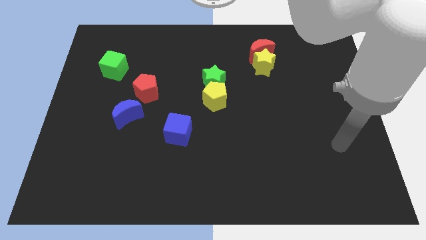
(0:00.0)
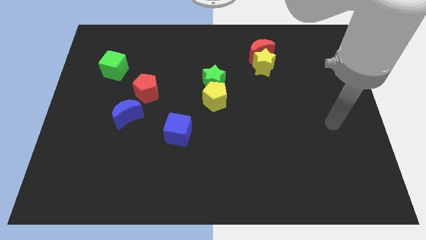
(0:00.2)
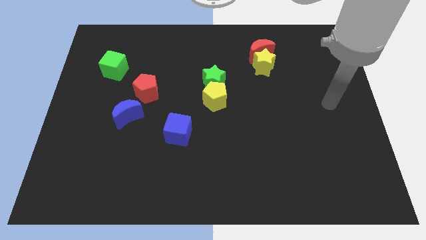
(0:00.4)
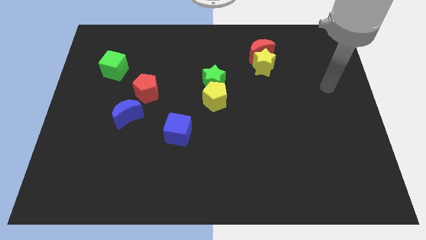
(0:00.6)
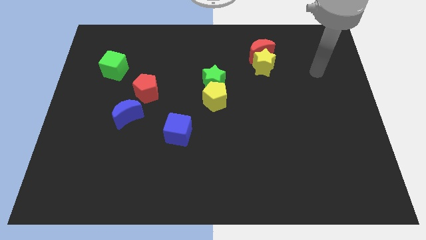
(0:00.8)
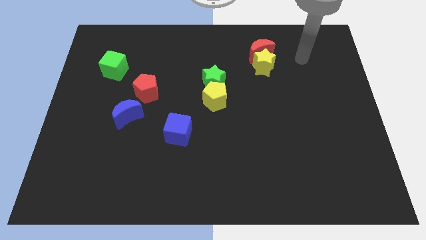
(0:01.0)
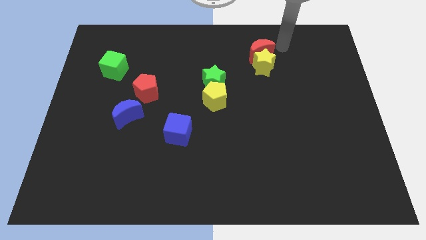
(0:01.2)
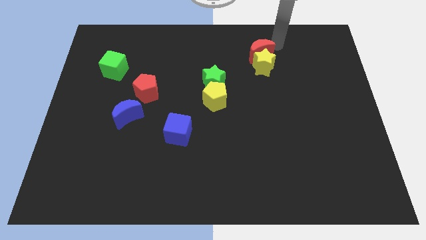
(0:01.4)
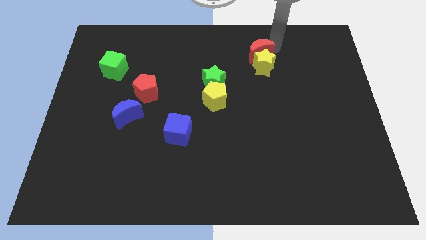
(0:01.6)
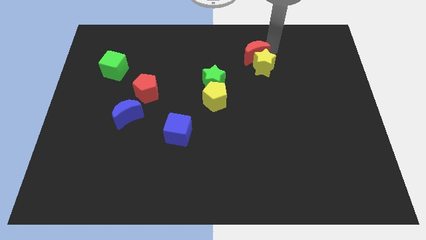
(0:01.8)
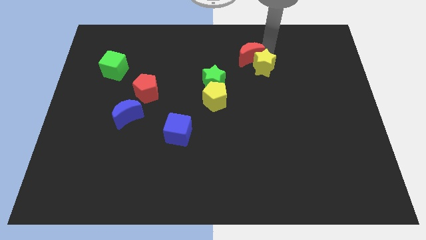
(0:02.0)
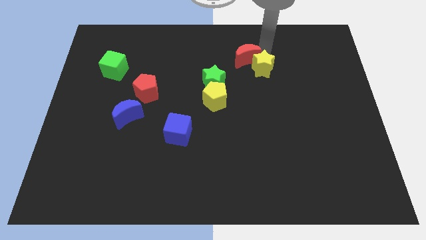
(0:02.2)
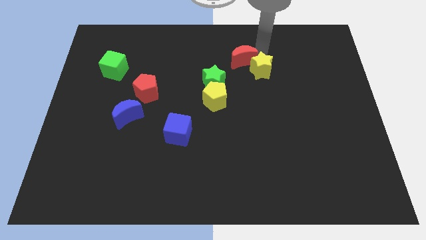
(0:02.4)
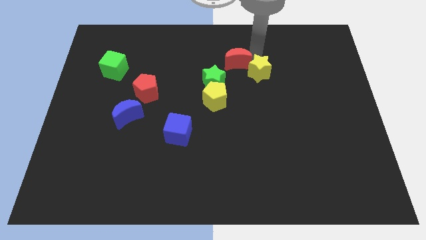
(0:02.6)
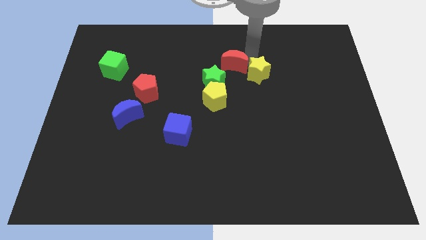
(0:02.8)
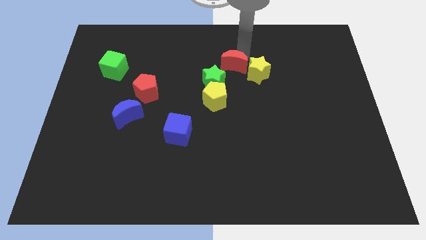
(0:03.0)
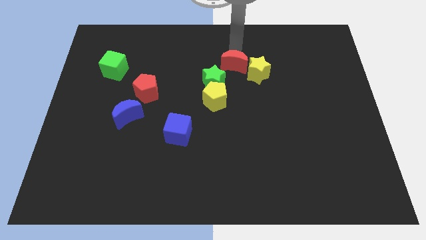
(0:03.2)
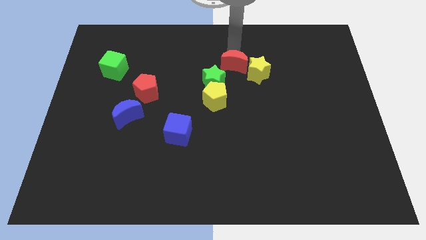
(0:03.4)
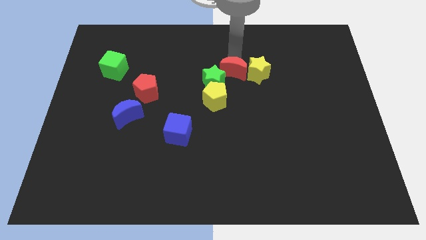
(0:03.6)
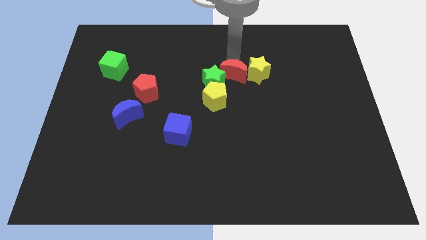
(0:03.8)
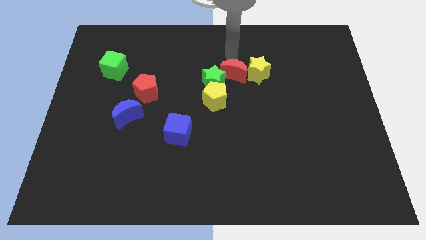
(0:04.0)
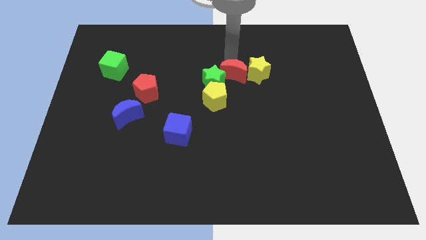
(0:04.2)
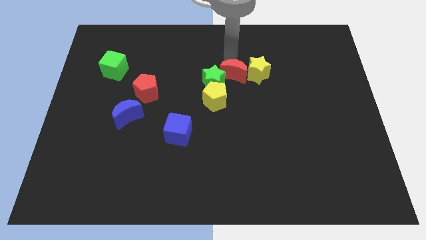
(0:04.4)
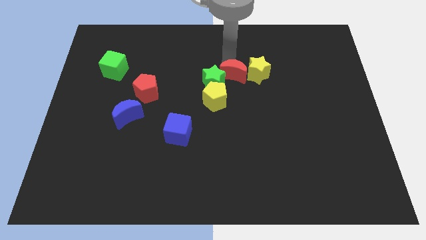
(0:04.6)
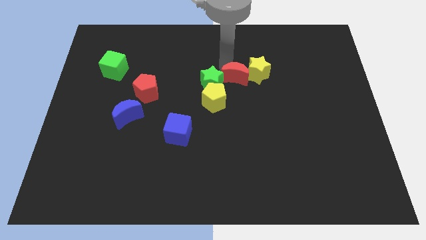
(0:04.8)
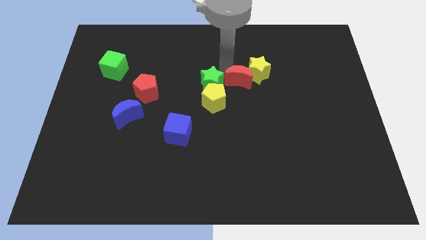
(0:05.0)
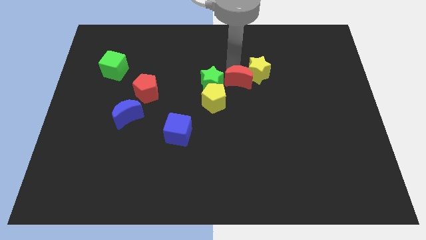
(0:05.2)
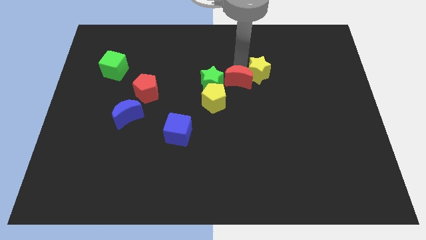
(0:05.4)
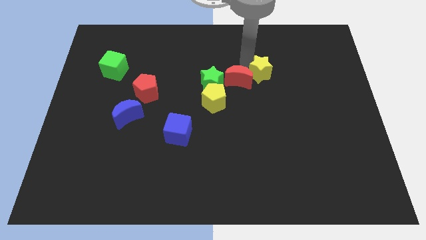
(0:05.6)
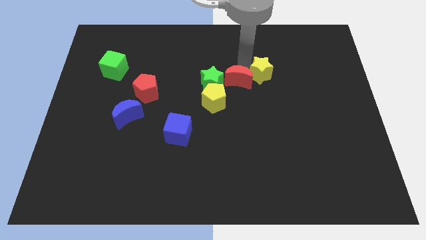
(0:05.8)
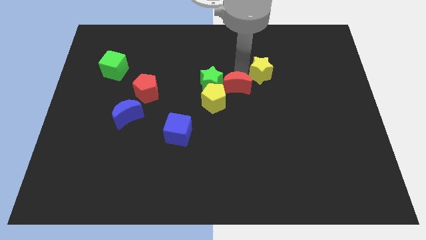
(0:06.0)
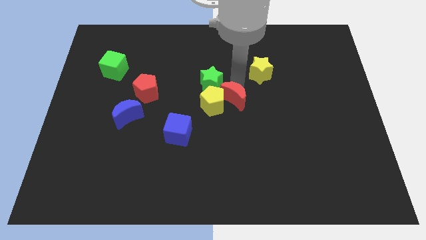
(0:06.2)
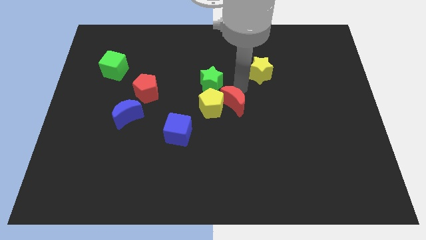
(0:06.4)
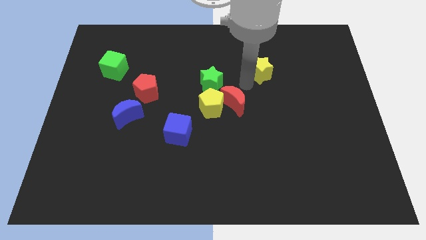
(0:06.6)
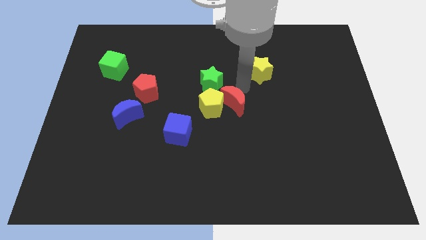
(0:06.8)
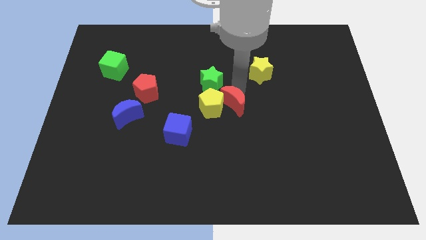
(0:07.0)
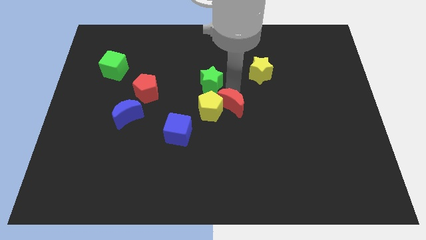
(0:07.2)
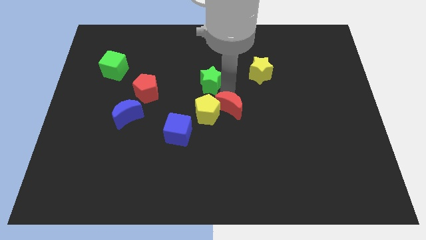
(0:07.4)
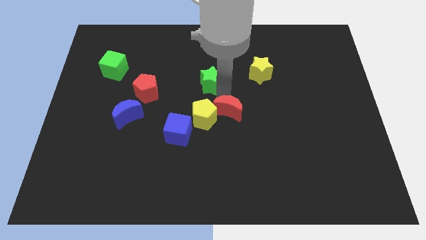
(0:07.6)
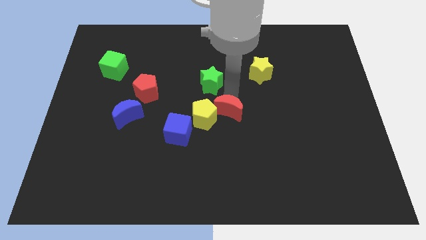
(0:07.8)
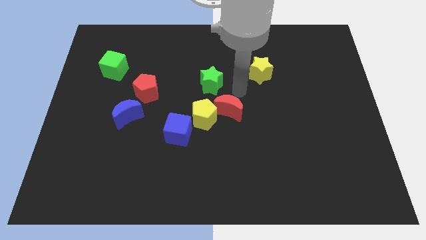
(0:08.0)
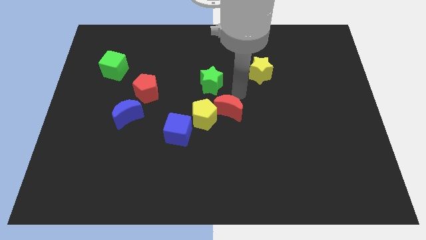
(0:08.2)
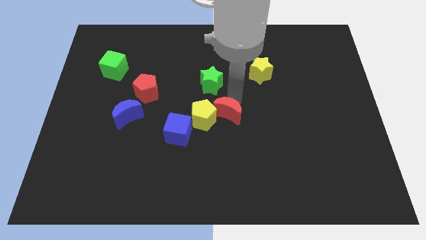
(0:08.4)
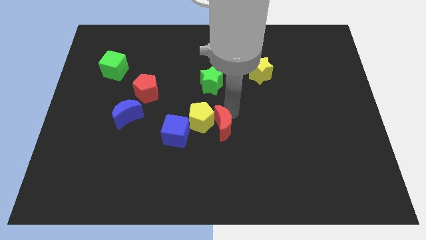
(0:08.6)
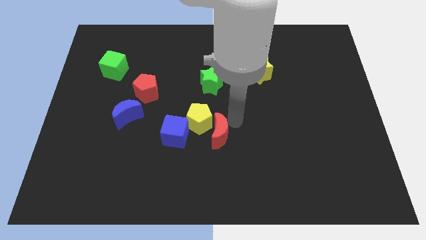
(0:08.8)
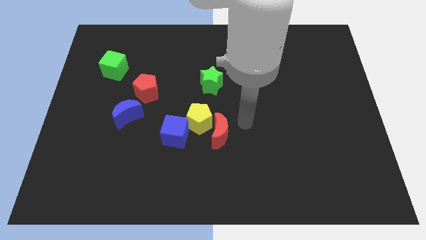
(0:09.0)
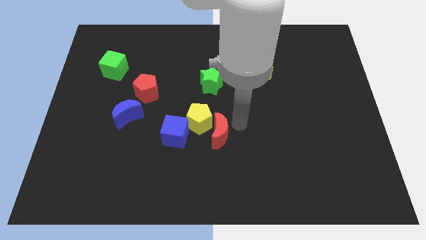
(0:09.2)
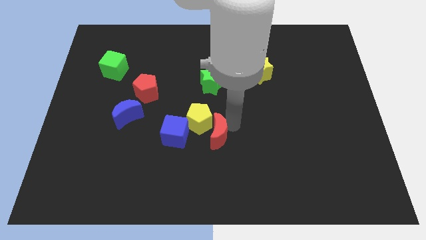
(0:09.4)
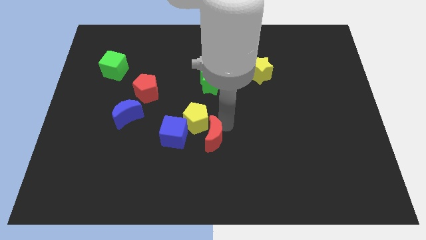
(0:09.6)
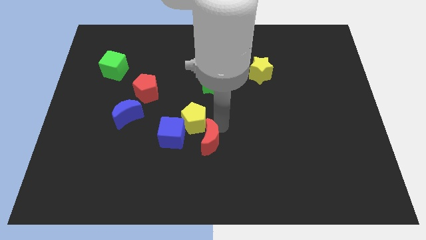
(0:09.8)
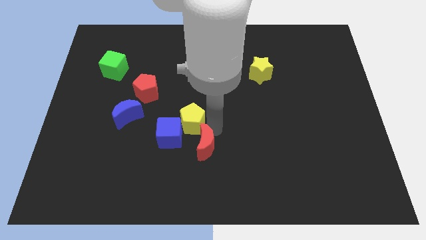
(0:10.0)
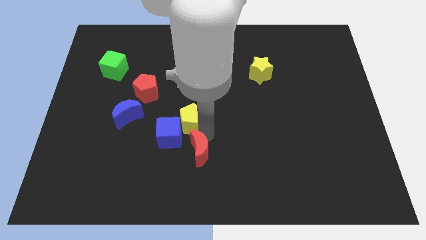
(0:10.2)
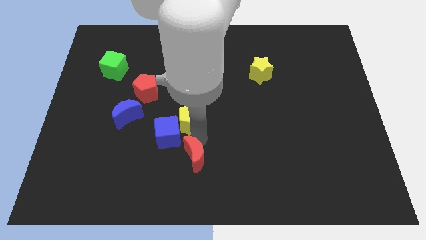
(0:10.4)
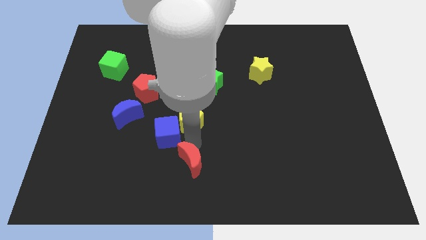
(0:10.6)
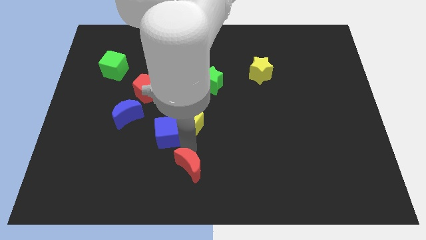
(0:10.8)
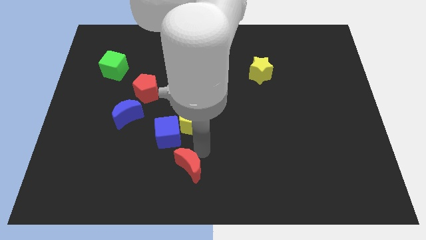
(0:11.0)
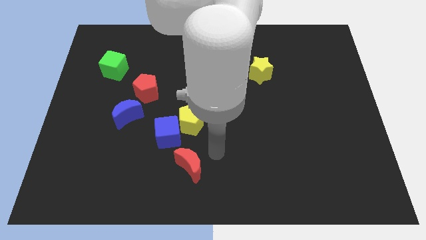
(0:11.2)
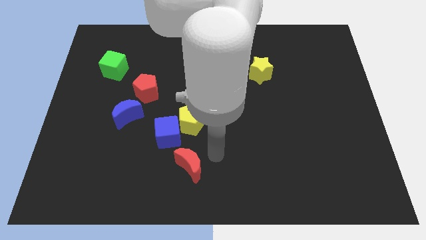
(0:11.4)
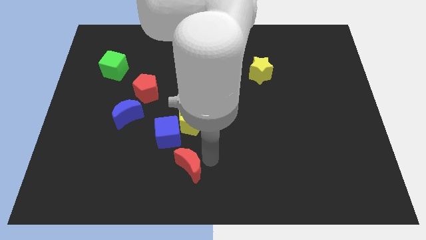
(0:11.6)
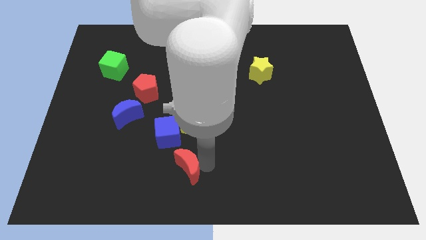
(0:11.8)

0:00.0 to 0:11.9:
push the red moon to the bottom of the blue cube

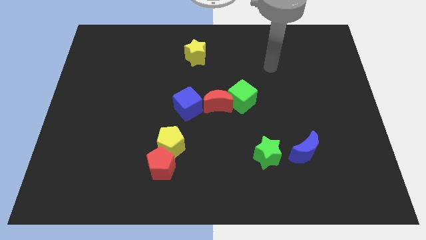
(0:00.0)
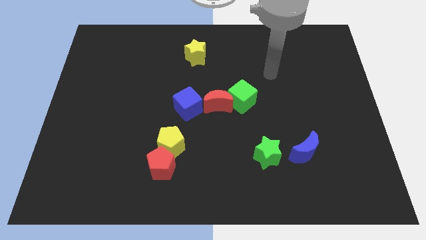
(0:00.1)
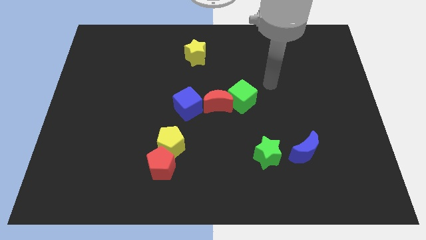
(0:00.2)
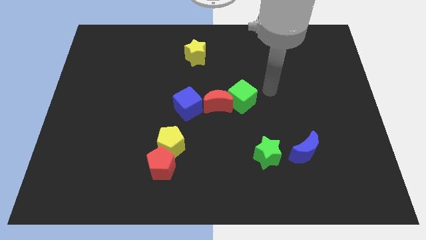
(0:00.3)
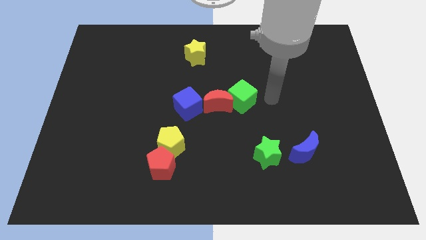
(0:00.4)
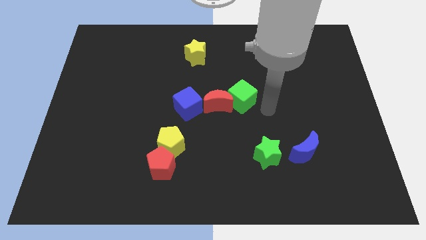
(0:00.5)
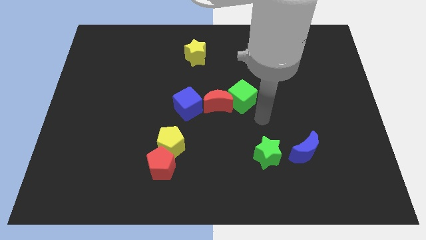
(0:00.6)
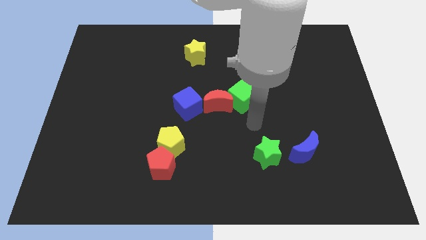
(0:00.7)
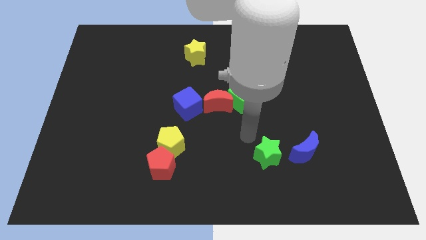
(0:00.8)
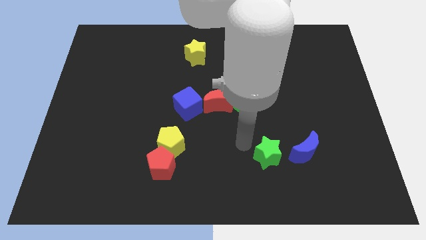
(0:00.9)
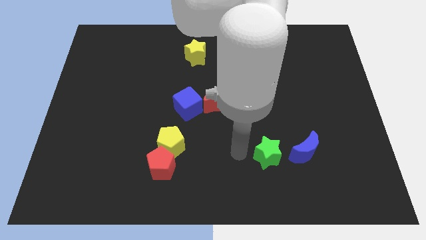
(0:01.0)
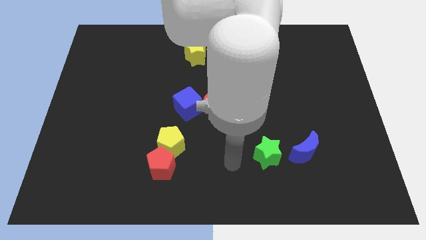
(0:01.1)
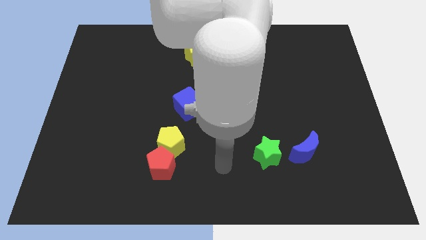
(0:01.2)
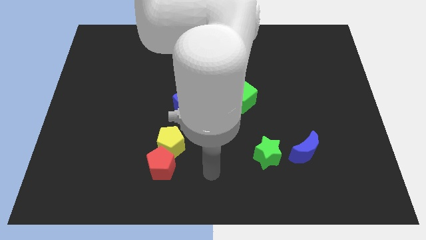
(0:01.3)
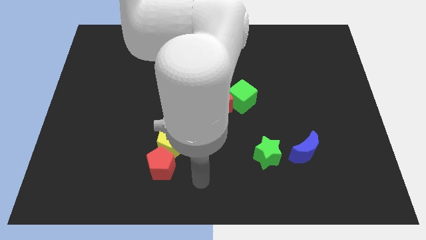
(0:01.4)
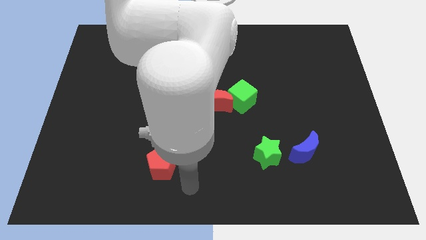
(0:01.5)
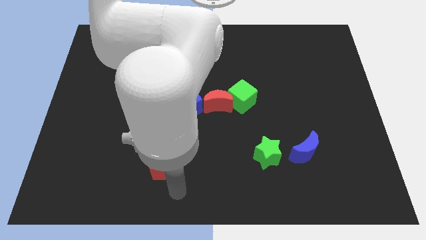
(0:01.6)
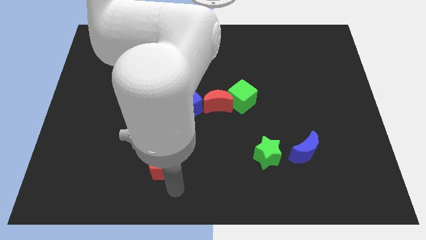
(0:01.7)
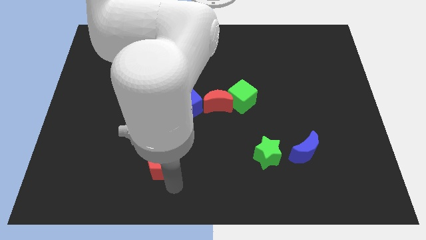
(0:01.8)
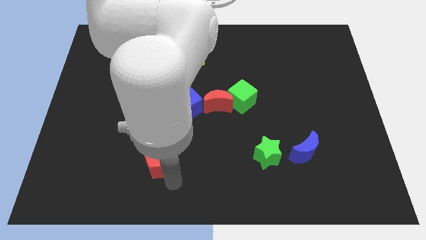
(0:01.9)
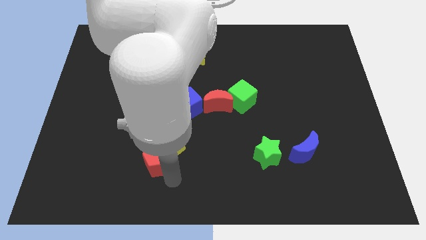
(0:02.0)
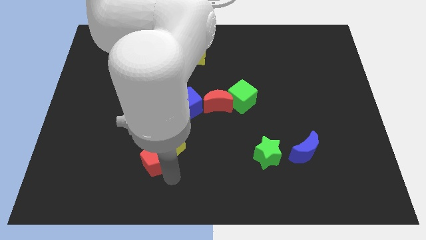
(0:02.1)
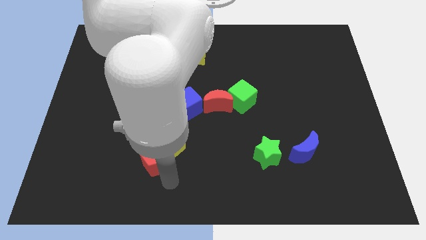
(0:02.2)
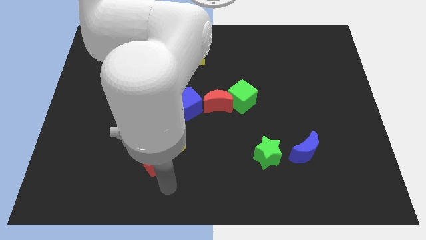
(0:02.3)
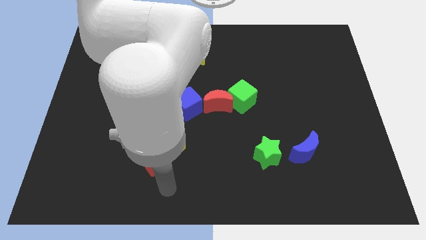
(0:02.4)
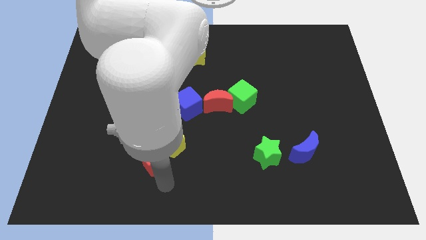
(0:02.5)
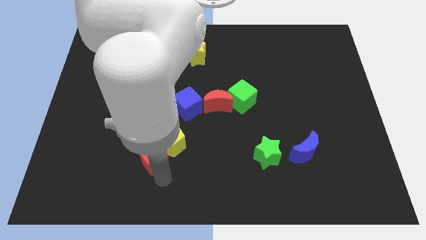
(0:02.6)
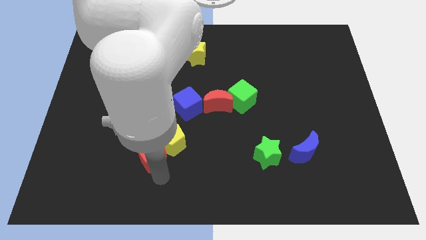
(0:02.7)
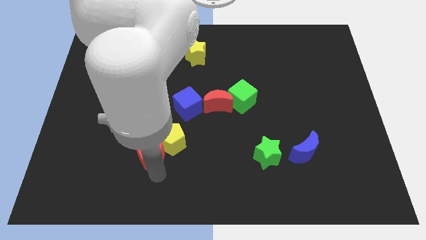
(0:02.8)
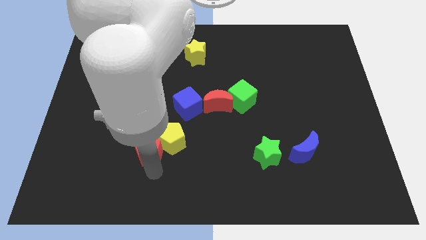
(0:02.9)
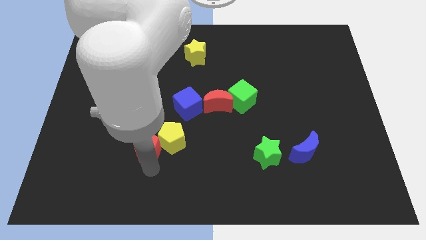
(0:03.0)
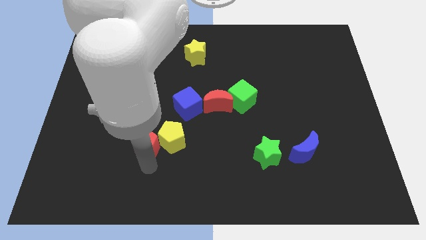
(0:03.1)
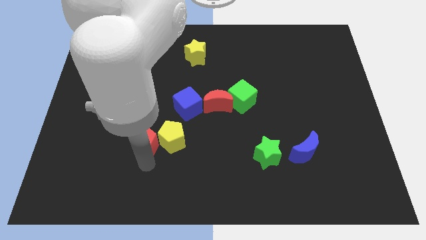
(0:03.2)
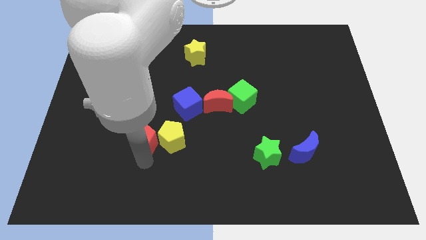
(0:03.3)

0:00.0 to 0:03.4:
push the red pentagon to the top left side of the yellow pentagon
